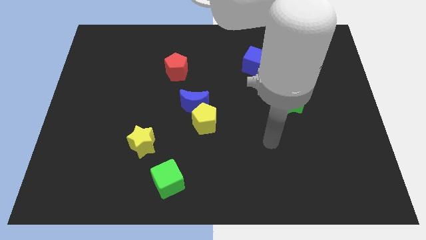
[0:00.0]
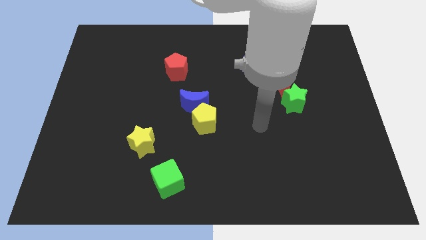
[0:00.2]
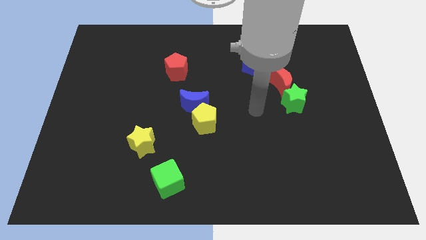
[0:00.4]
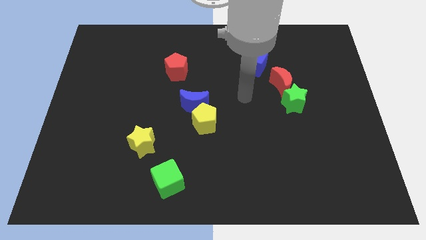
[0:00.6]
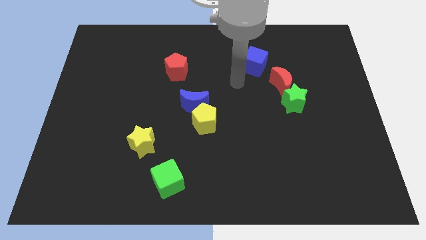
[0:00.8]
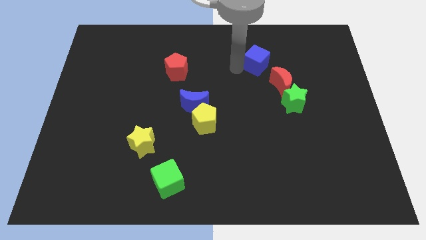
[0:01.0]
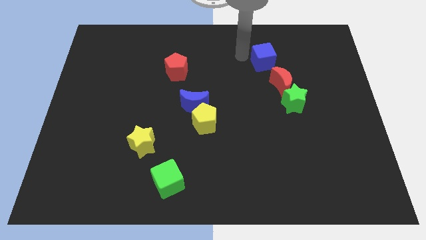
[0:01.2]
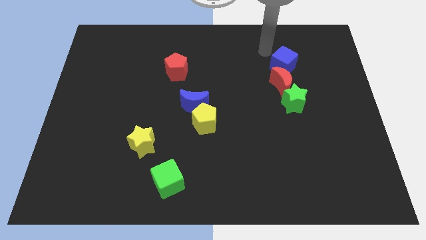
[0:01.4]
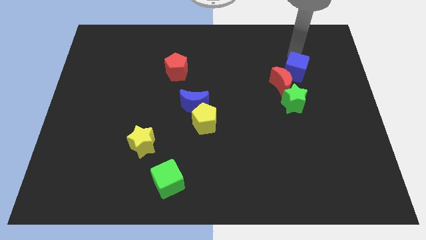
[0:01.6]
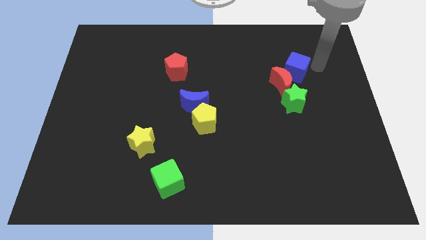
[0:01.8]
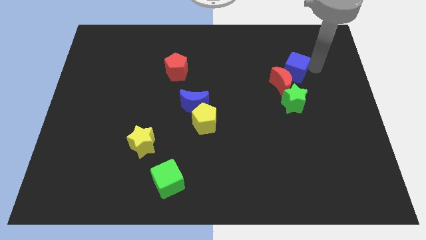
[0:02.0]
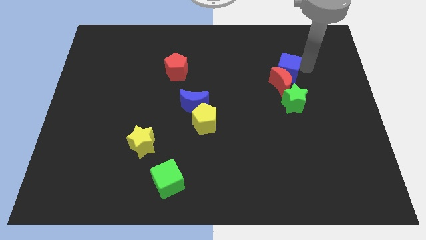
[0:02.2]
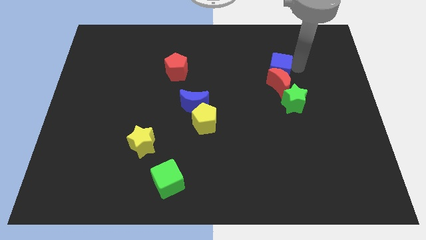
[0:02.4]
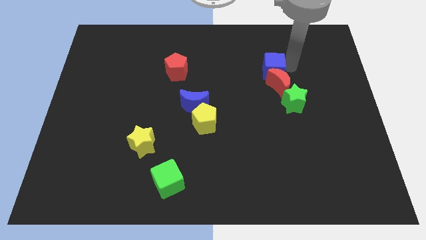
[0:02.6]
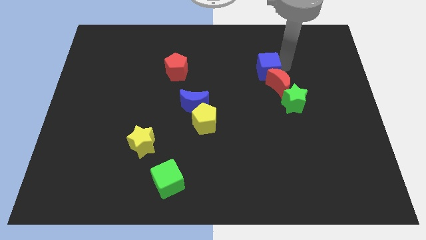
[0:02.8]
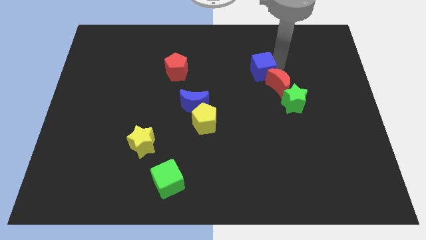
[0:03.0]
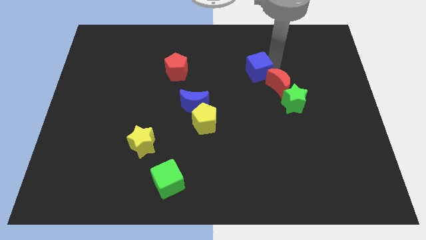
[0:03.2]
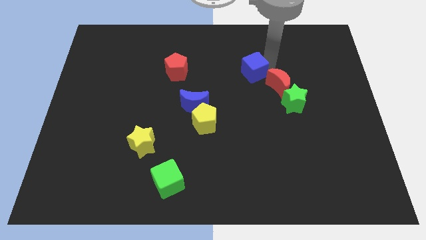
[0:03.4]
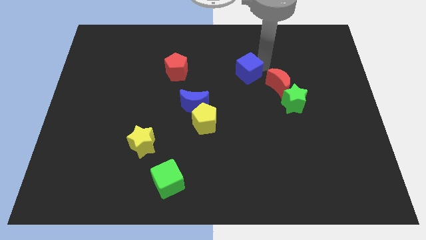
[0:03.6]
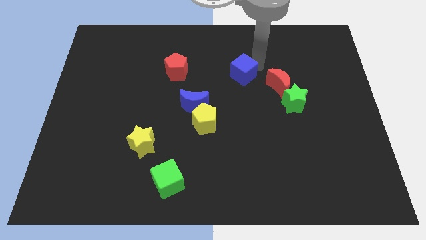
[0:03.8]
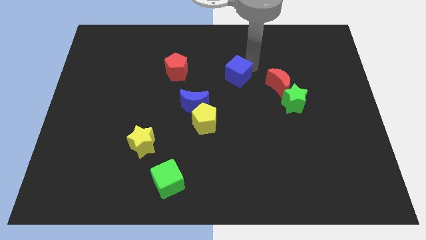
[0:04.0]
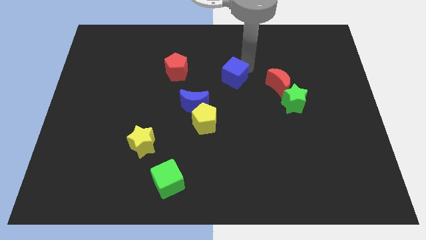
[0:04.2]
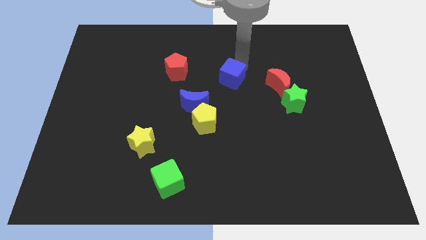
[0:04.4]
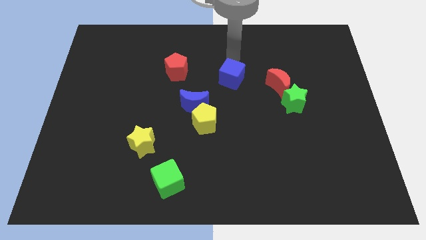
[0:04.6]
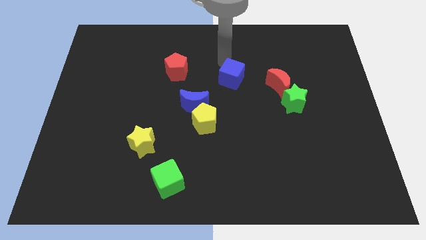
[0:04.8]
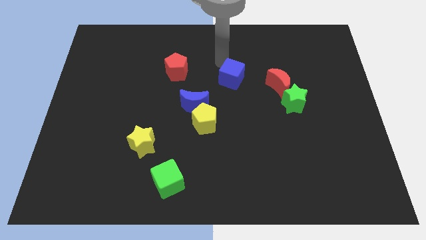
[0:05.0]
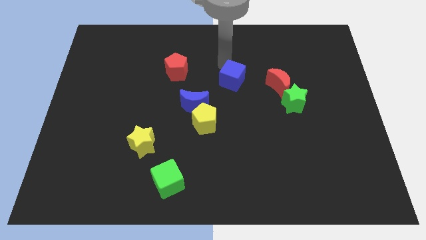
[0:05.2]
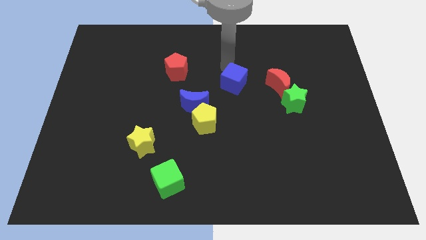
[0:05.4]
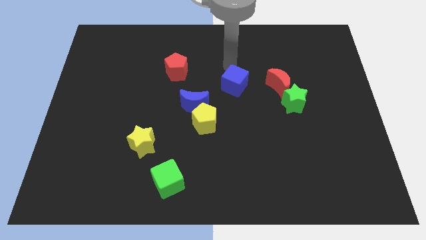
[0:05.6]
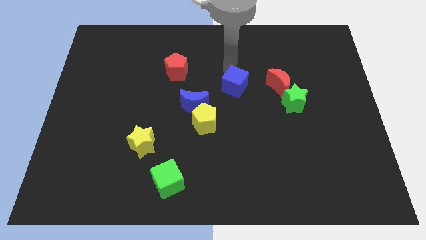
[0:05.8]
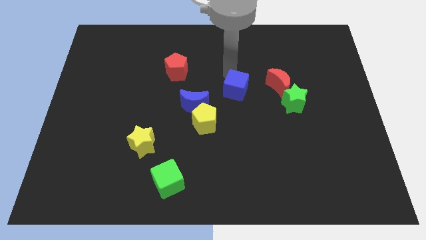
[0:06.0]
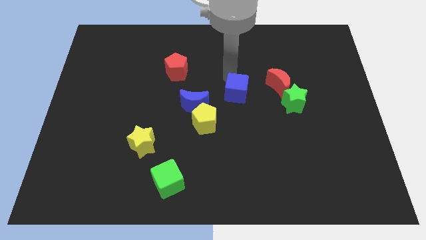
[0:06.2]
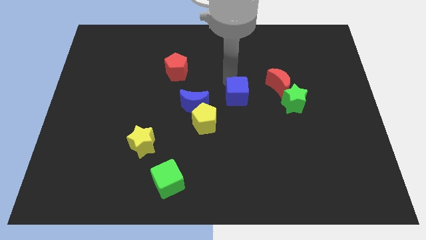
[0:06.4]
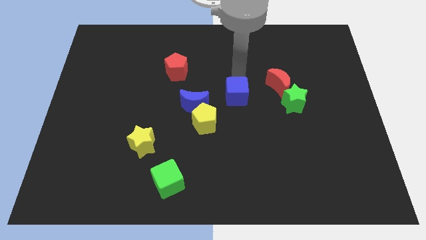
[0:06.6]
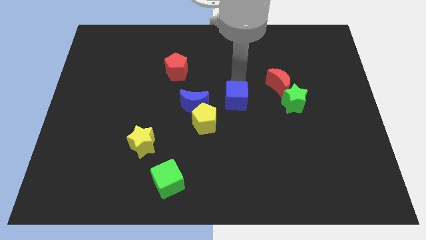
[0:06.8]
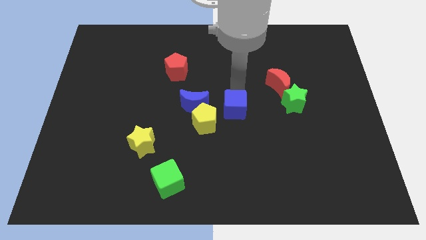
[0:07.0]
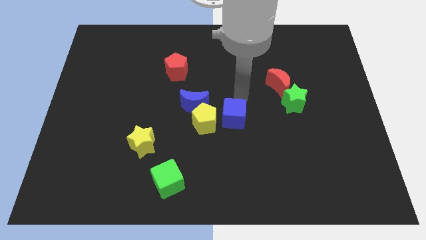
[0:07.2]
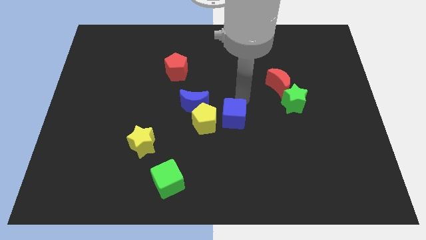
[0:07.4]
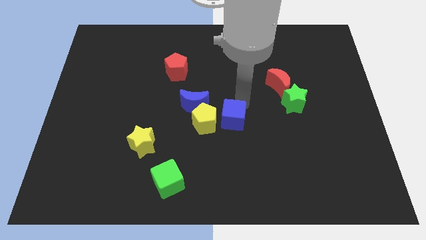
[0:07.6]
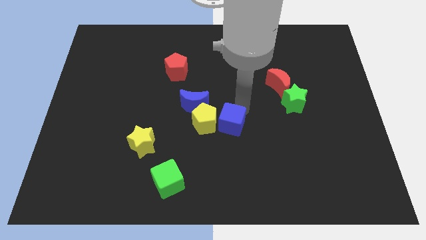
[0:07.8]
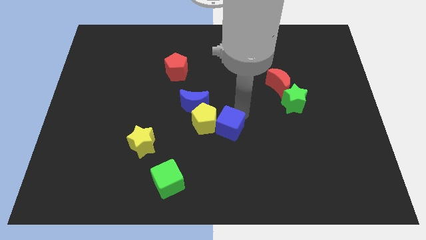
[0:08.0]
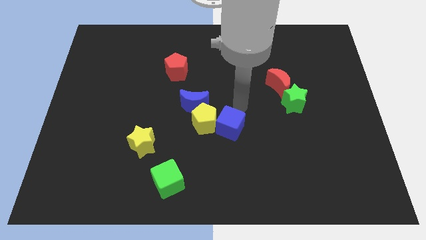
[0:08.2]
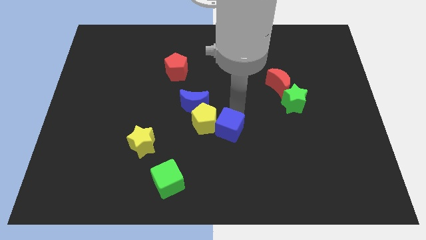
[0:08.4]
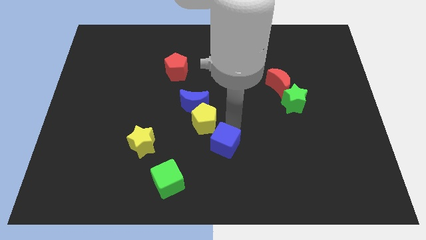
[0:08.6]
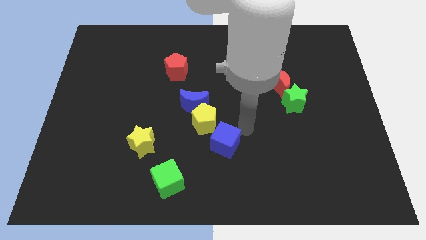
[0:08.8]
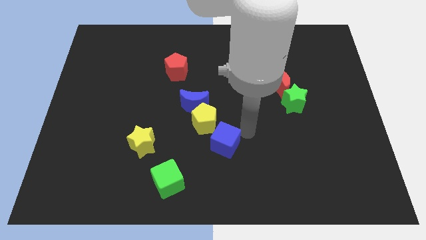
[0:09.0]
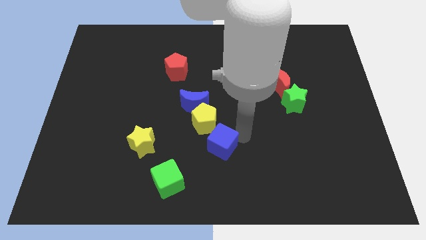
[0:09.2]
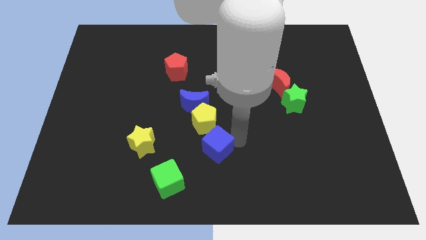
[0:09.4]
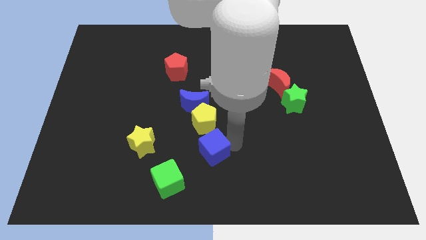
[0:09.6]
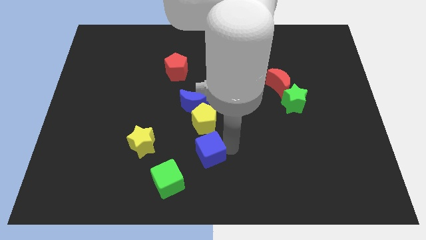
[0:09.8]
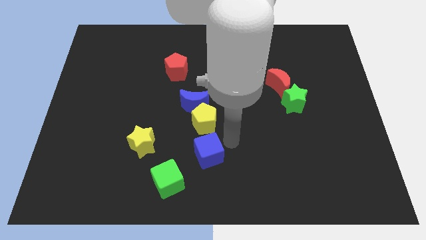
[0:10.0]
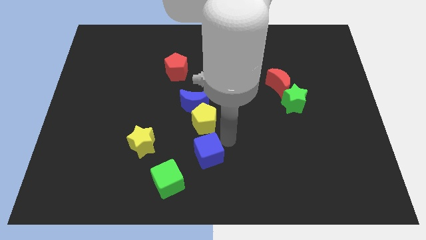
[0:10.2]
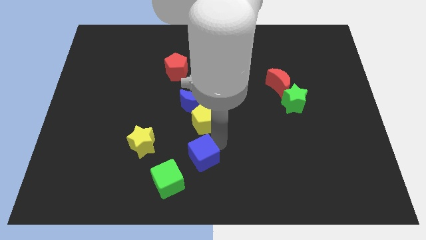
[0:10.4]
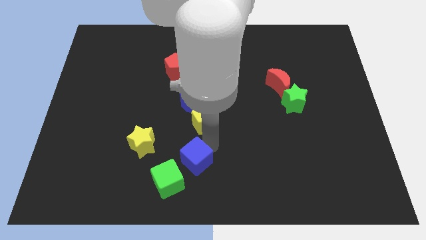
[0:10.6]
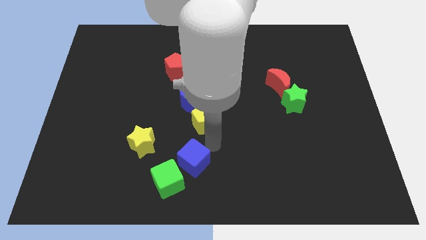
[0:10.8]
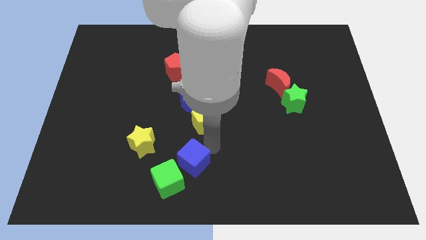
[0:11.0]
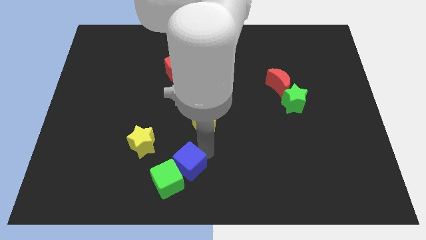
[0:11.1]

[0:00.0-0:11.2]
slide the blue cube to the green cube

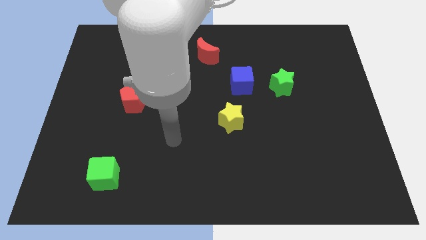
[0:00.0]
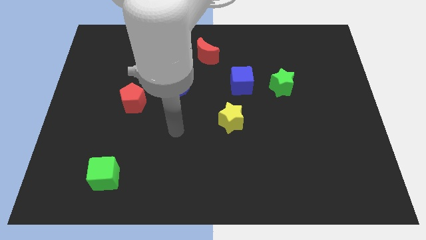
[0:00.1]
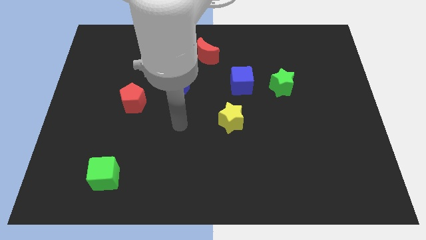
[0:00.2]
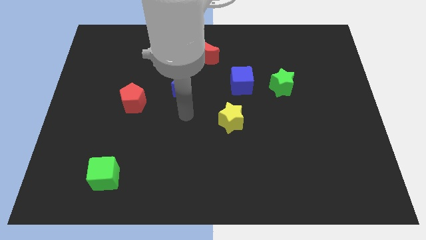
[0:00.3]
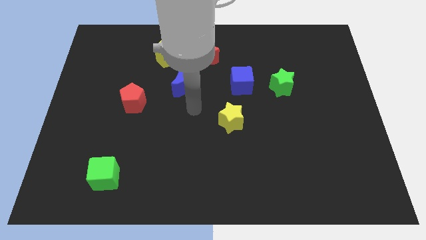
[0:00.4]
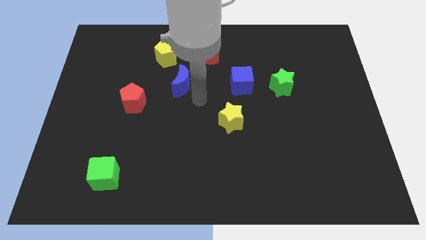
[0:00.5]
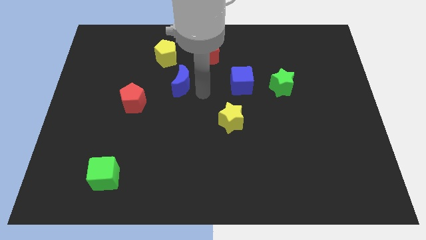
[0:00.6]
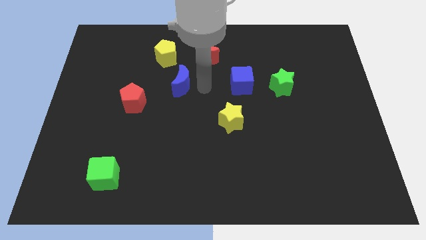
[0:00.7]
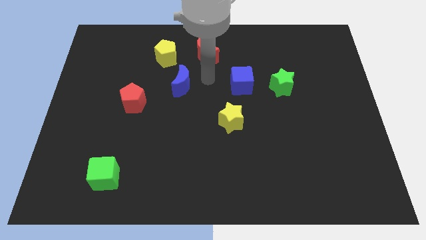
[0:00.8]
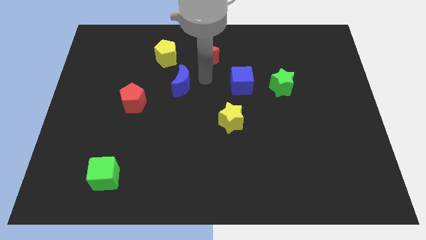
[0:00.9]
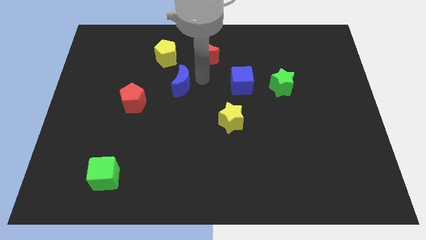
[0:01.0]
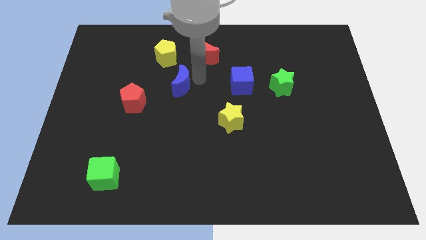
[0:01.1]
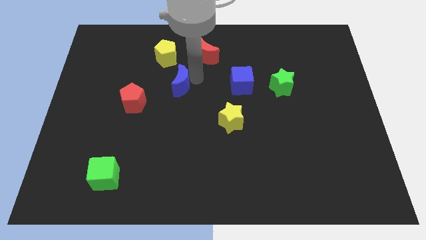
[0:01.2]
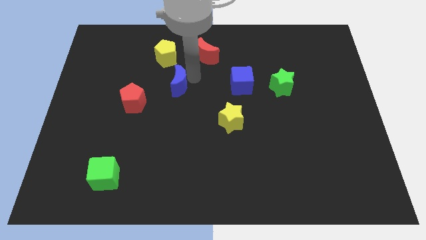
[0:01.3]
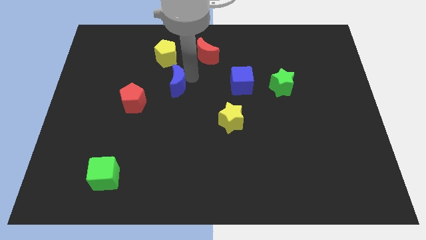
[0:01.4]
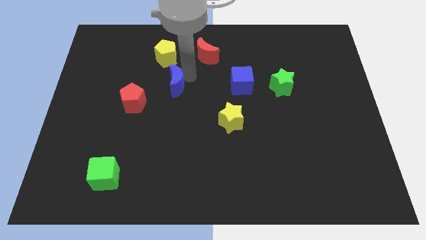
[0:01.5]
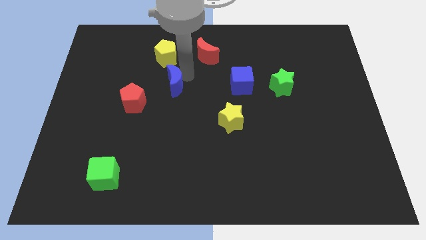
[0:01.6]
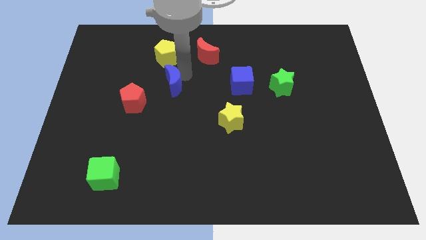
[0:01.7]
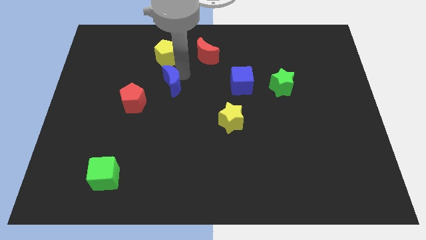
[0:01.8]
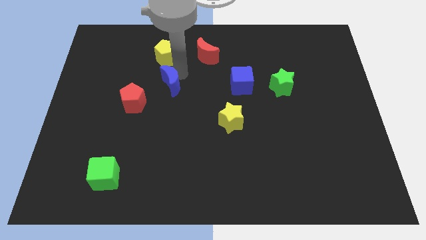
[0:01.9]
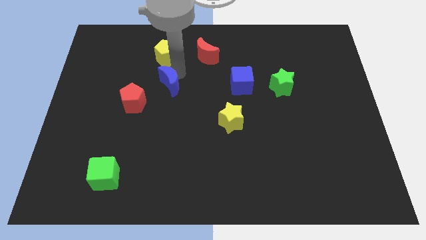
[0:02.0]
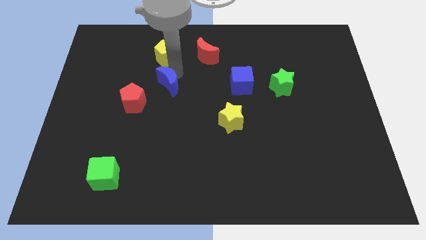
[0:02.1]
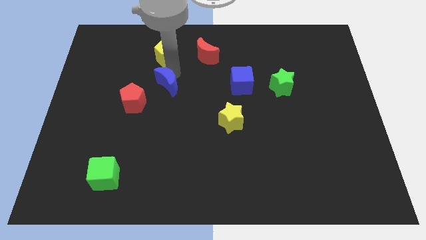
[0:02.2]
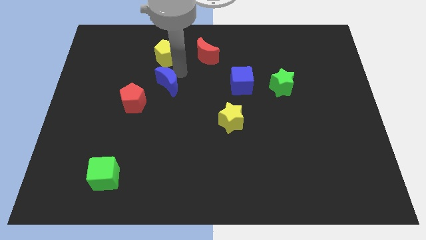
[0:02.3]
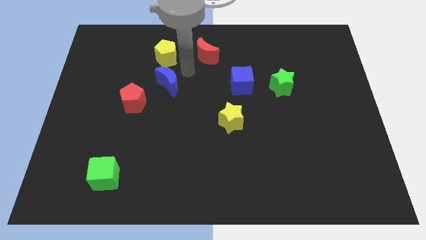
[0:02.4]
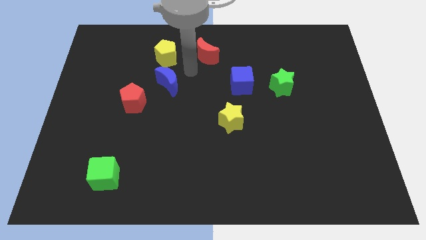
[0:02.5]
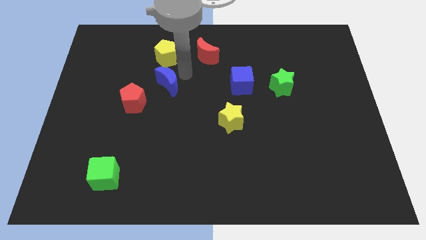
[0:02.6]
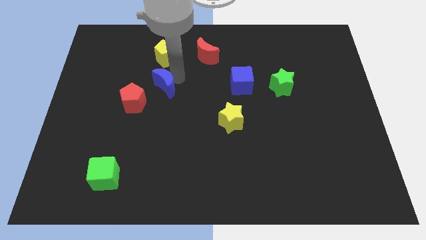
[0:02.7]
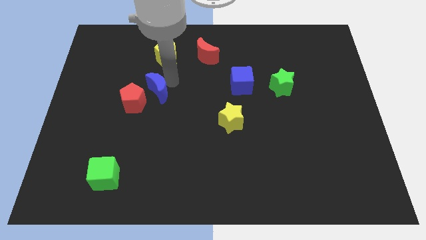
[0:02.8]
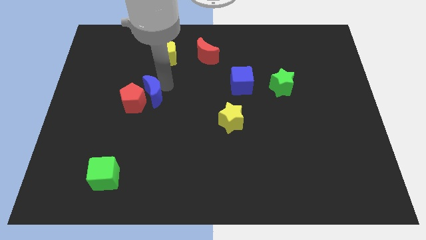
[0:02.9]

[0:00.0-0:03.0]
push the blue moon to the red pentagon
